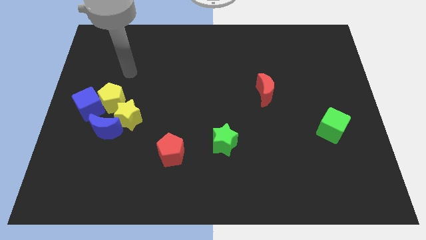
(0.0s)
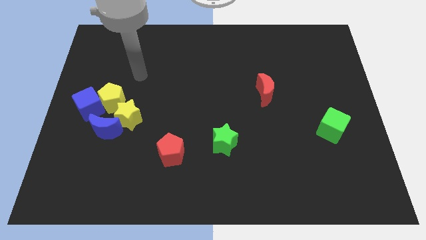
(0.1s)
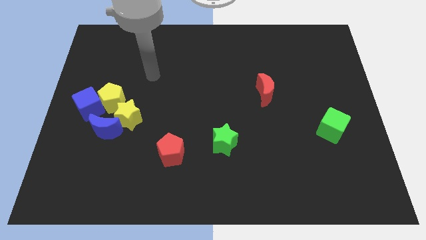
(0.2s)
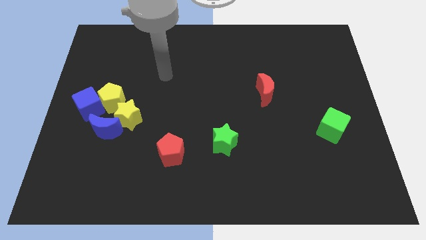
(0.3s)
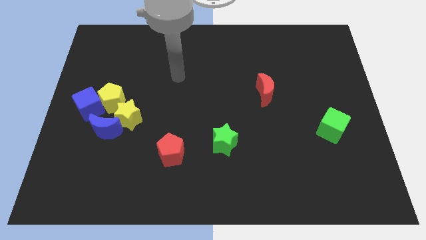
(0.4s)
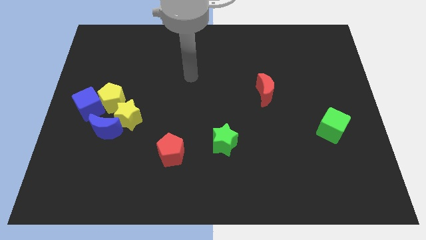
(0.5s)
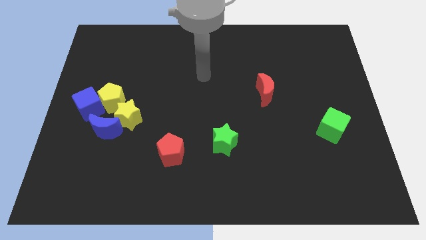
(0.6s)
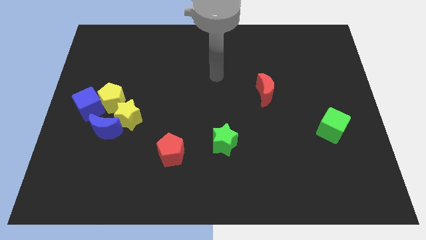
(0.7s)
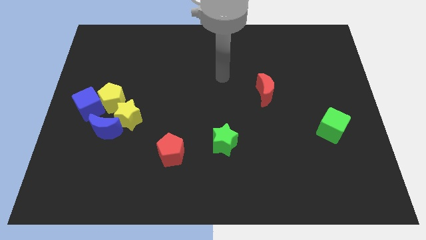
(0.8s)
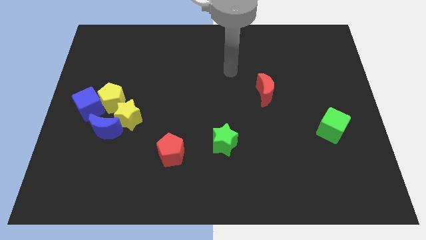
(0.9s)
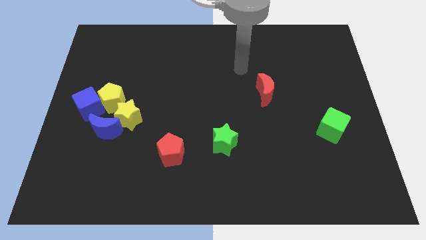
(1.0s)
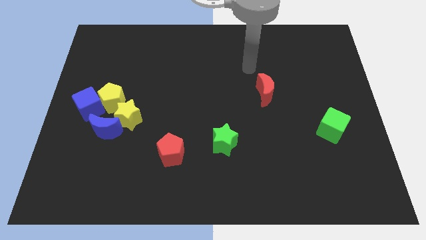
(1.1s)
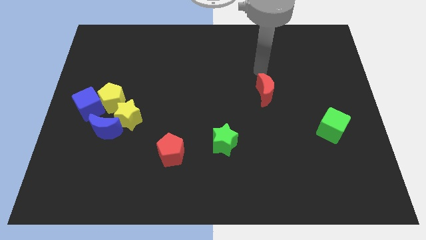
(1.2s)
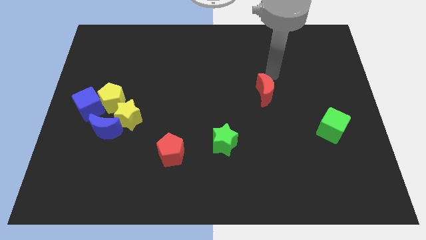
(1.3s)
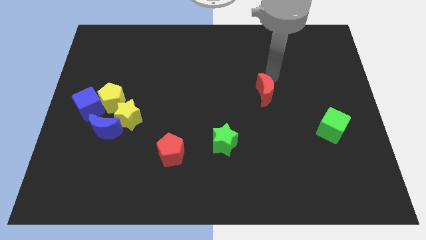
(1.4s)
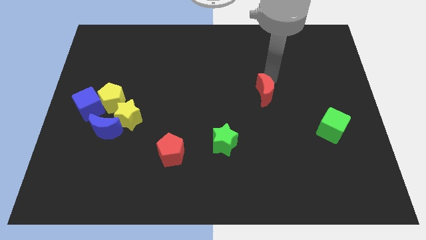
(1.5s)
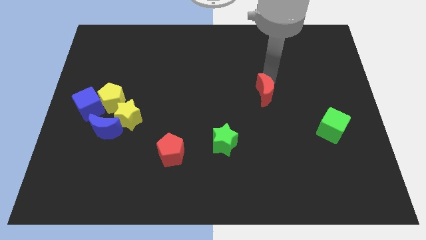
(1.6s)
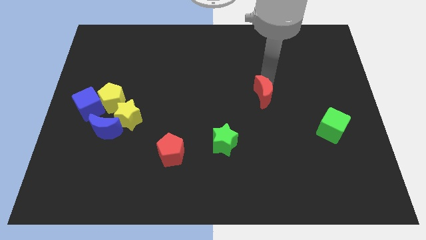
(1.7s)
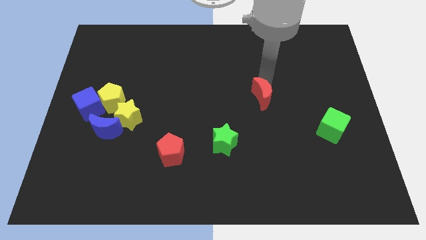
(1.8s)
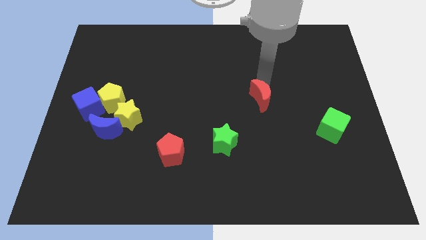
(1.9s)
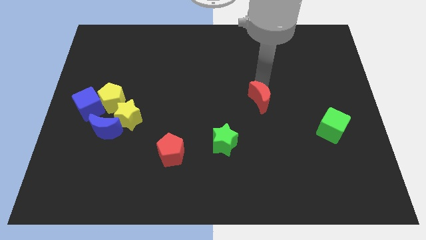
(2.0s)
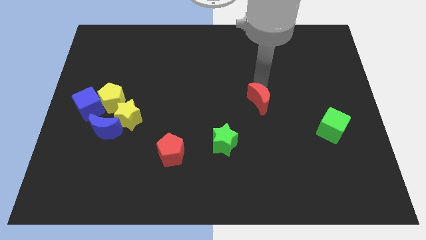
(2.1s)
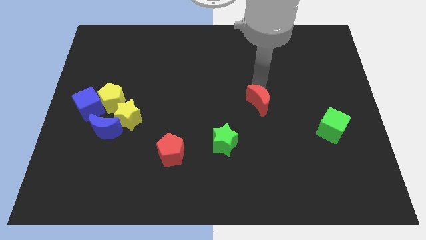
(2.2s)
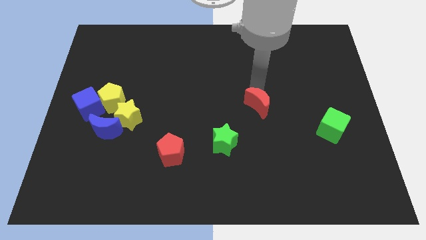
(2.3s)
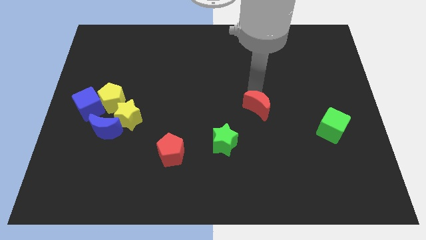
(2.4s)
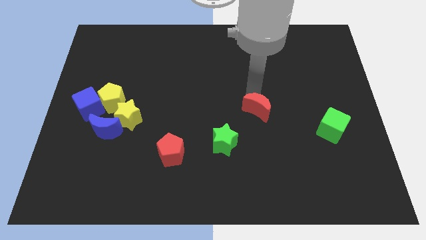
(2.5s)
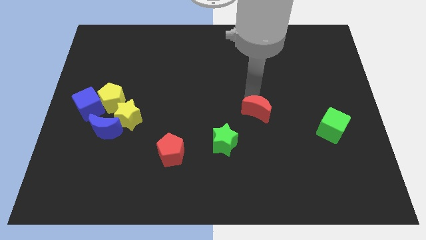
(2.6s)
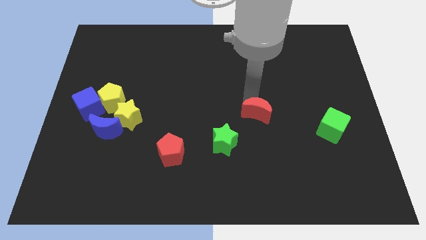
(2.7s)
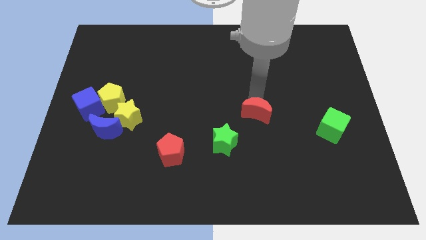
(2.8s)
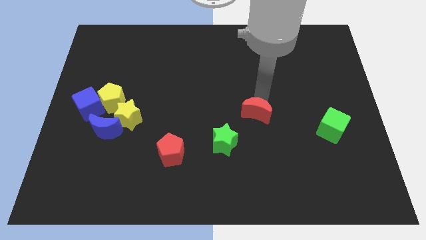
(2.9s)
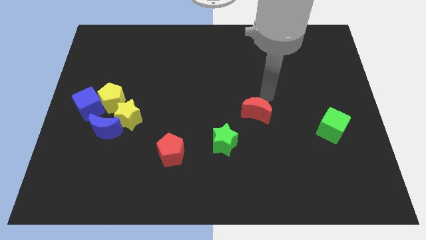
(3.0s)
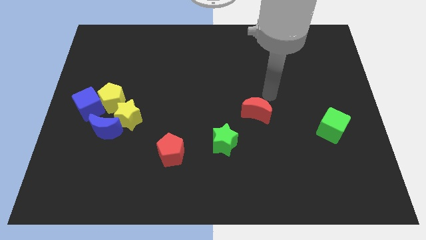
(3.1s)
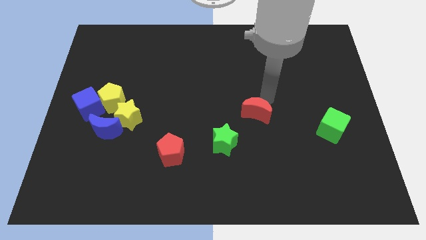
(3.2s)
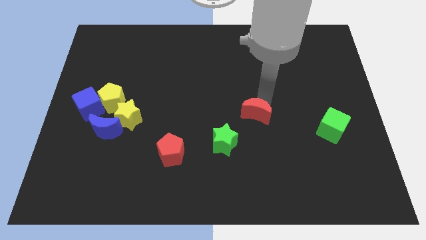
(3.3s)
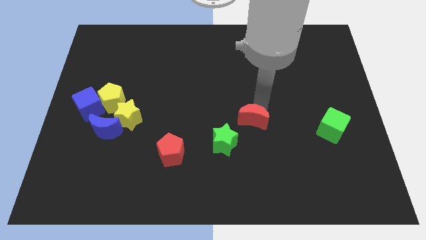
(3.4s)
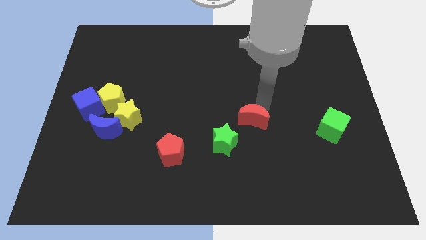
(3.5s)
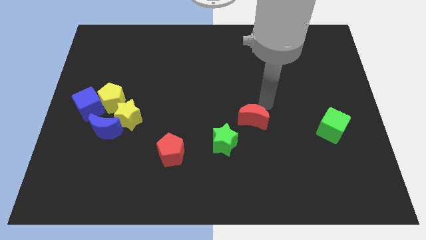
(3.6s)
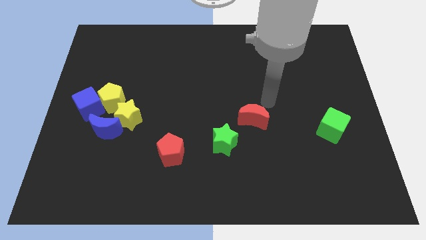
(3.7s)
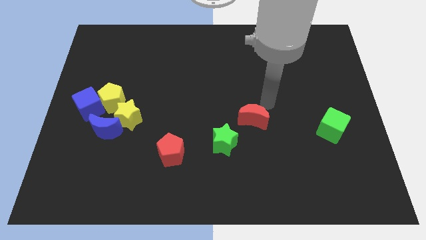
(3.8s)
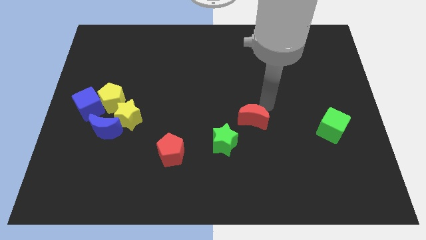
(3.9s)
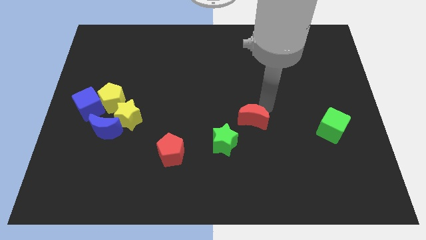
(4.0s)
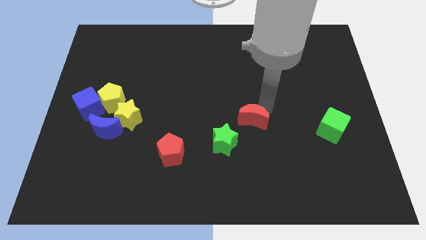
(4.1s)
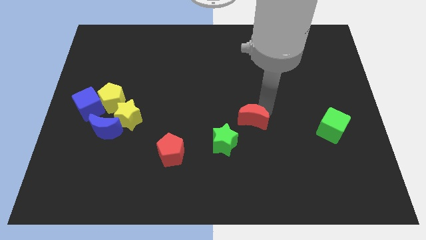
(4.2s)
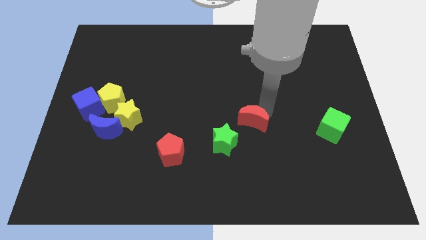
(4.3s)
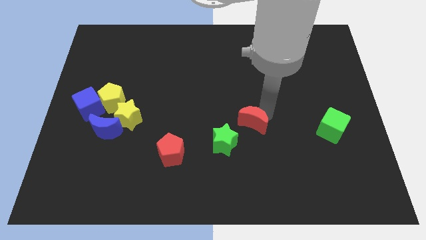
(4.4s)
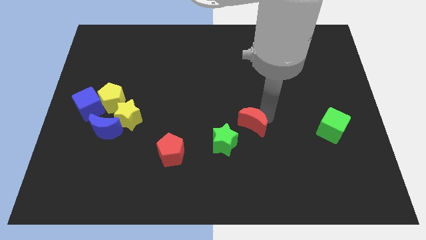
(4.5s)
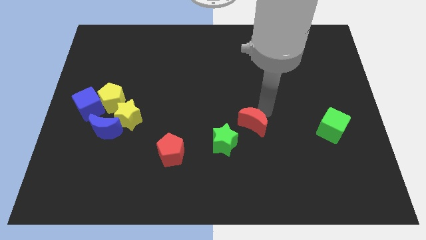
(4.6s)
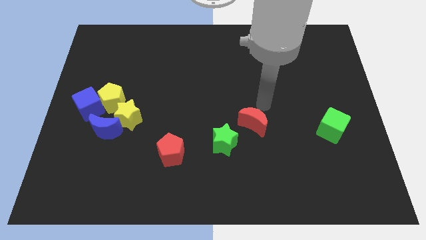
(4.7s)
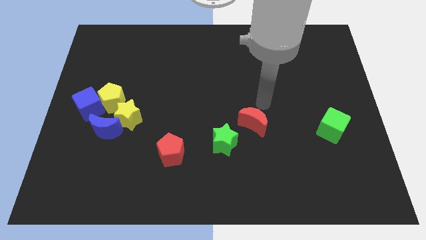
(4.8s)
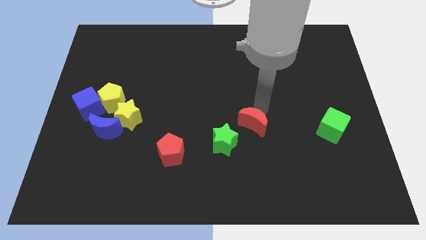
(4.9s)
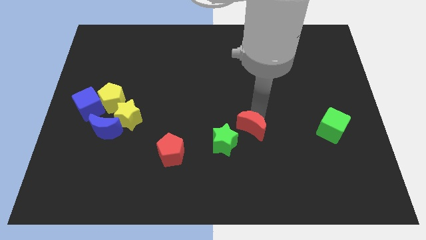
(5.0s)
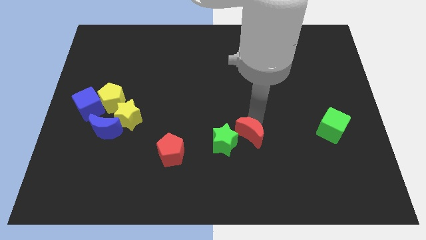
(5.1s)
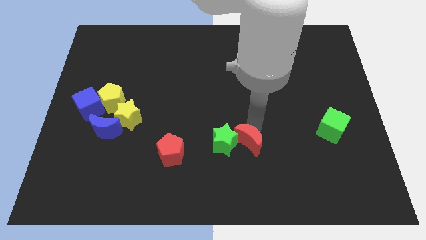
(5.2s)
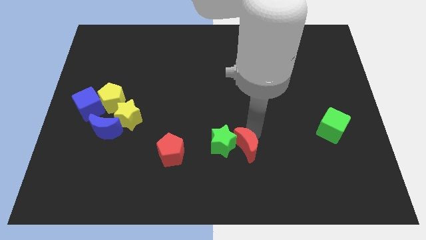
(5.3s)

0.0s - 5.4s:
push the red moon to the right of the red pentagon

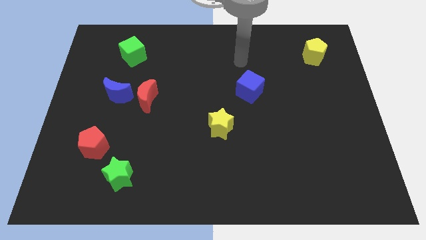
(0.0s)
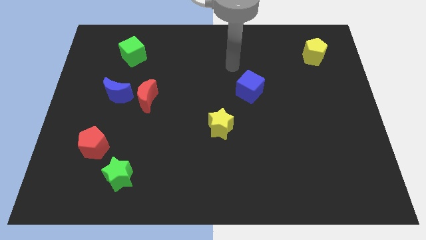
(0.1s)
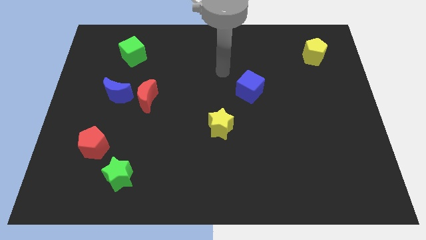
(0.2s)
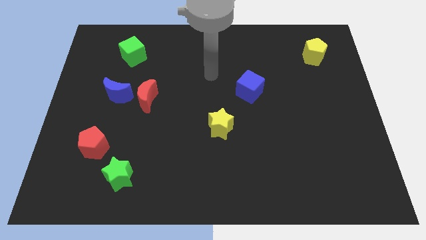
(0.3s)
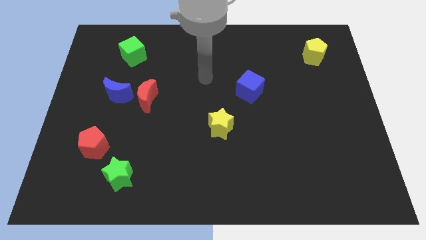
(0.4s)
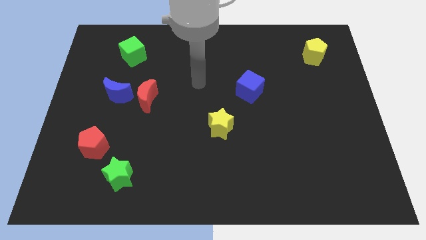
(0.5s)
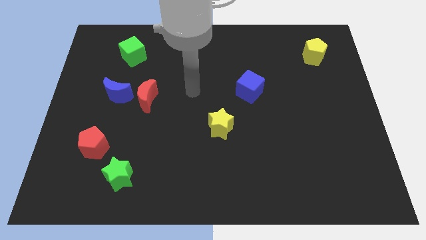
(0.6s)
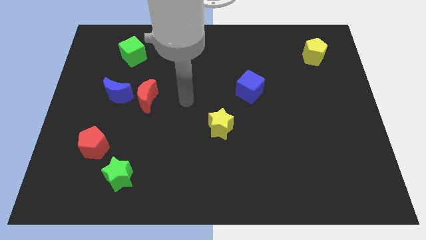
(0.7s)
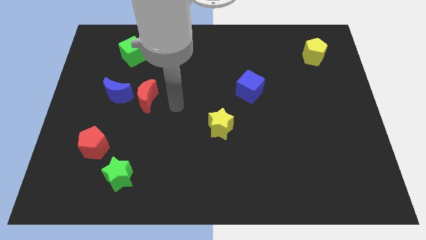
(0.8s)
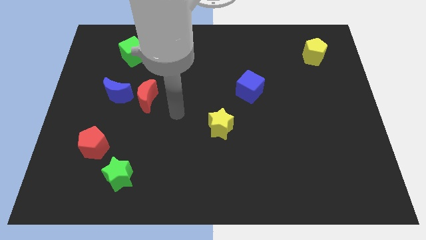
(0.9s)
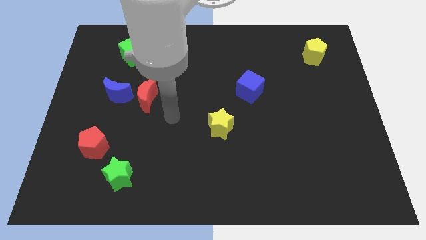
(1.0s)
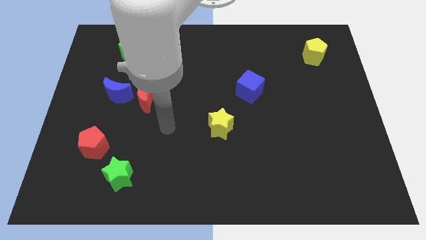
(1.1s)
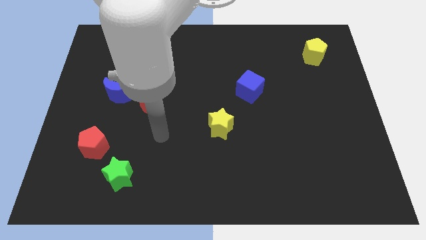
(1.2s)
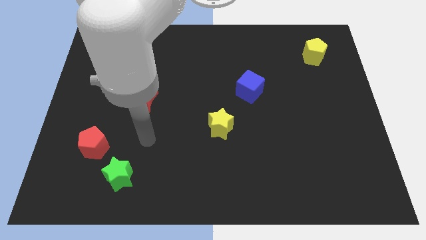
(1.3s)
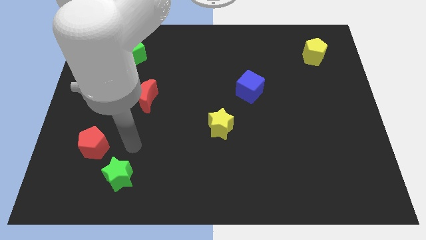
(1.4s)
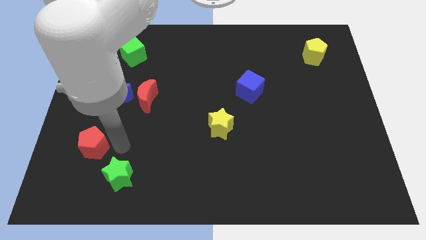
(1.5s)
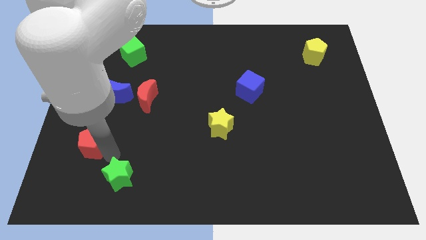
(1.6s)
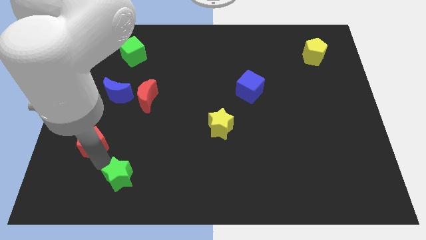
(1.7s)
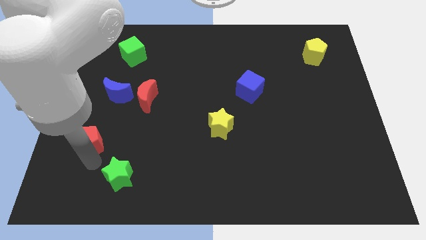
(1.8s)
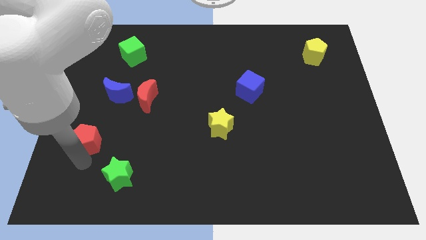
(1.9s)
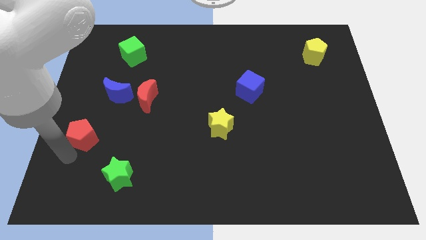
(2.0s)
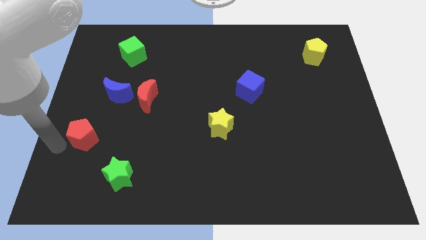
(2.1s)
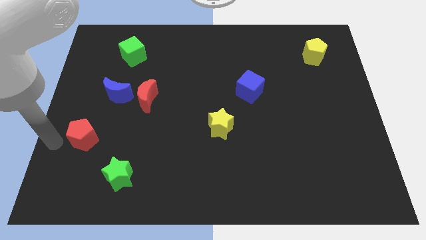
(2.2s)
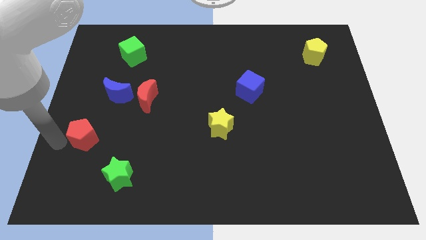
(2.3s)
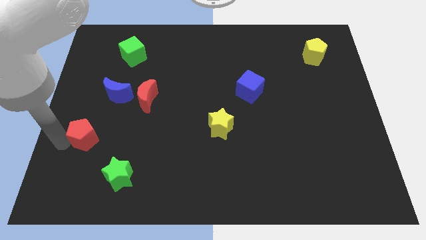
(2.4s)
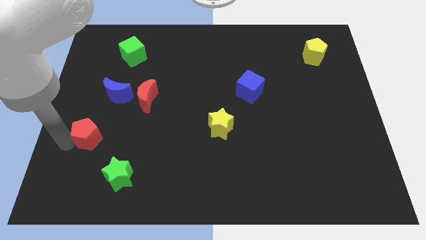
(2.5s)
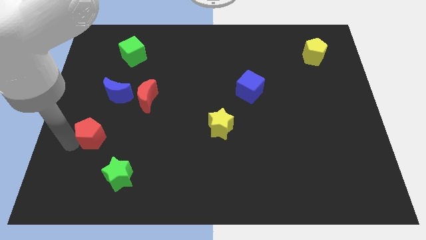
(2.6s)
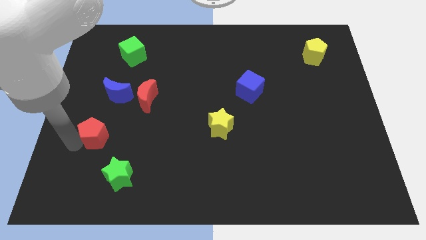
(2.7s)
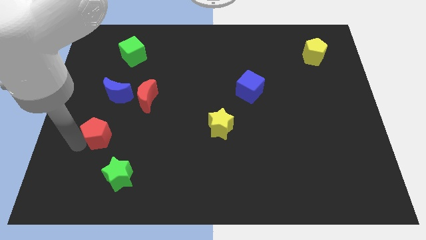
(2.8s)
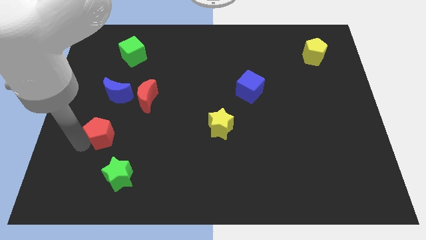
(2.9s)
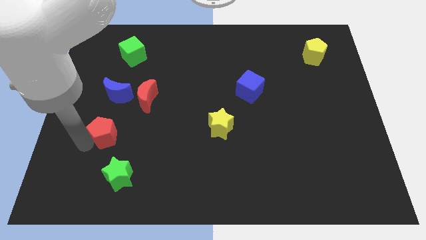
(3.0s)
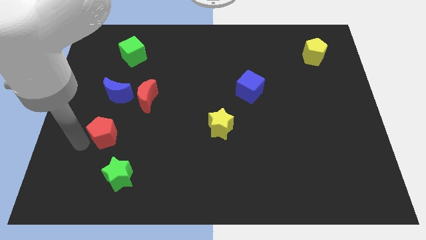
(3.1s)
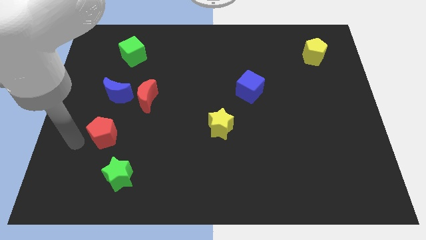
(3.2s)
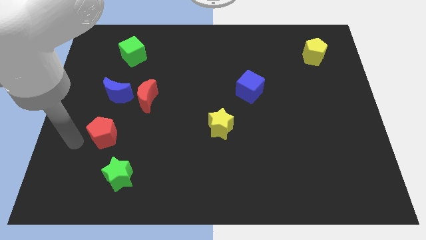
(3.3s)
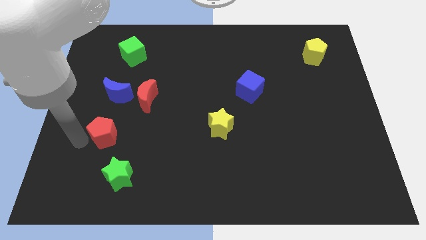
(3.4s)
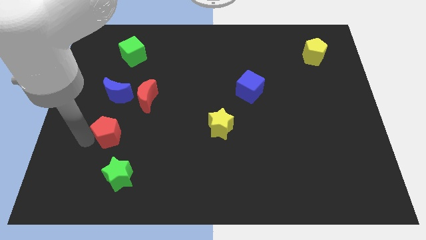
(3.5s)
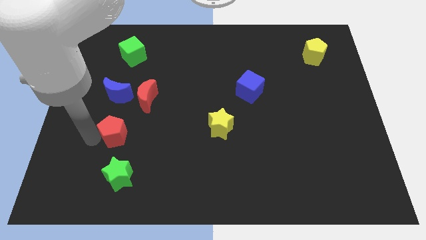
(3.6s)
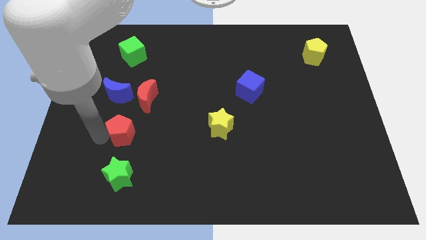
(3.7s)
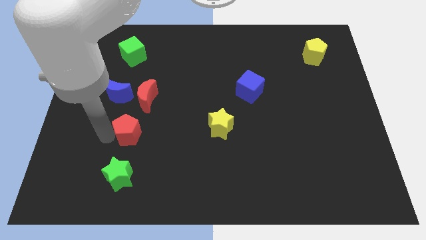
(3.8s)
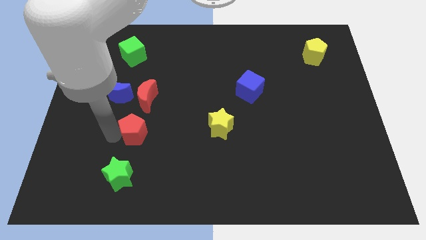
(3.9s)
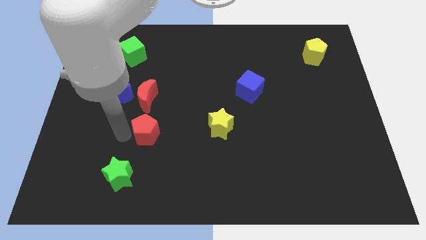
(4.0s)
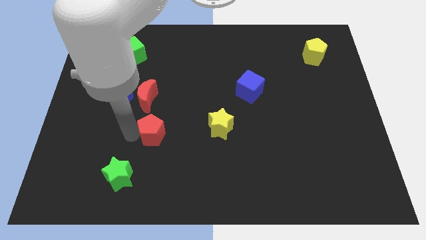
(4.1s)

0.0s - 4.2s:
slide the red pentagon to the left side of the yellow star
